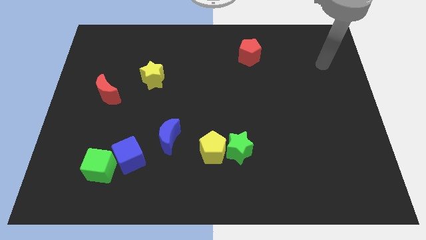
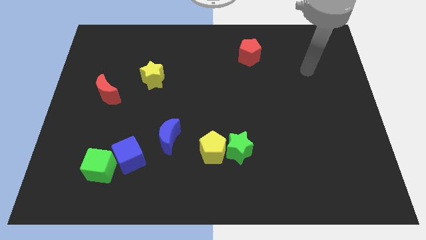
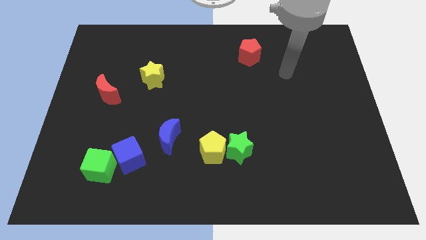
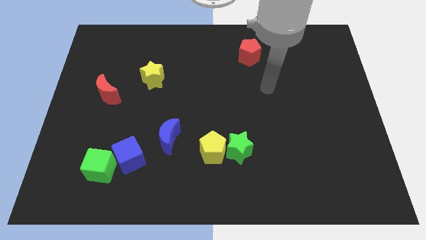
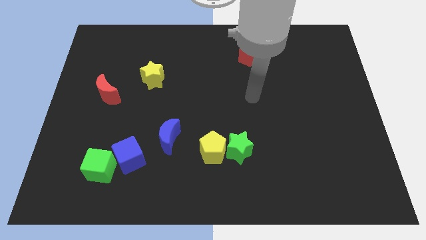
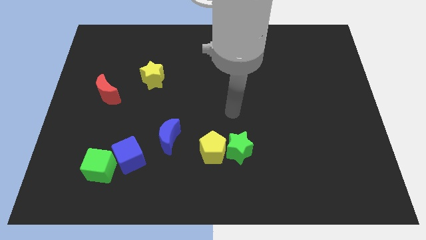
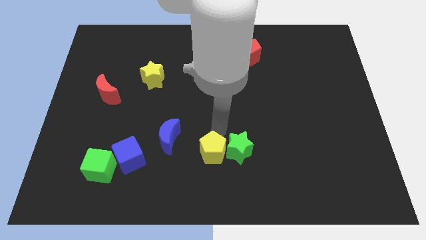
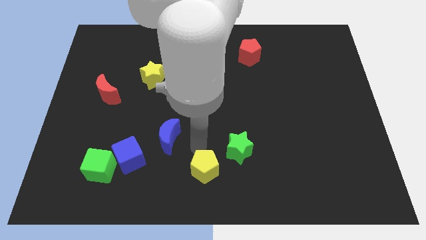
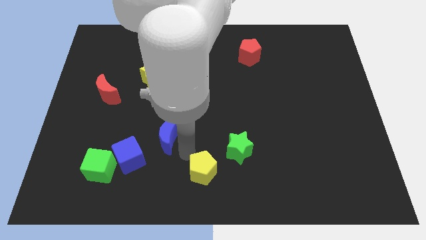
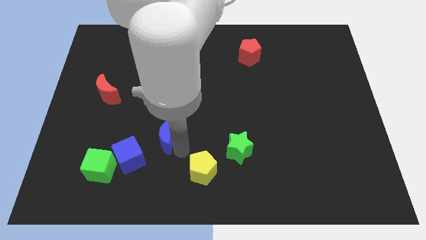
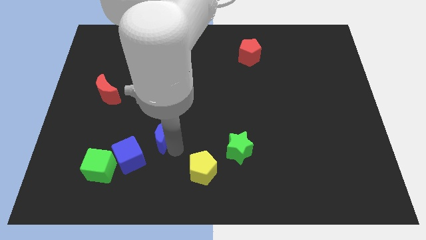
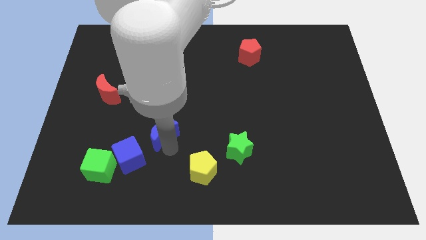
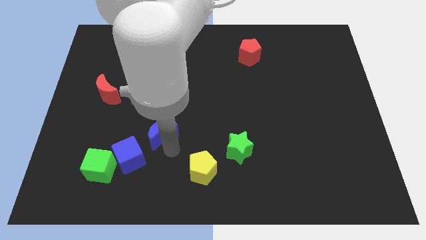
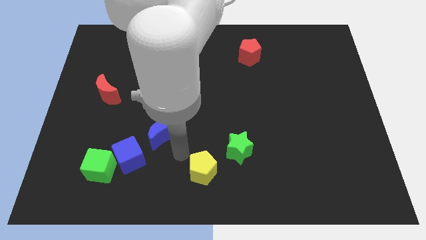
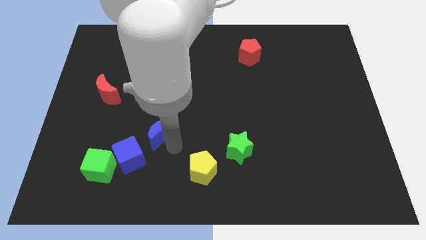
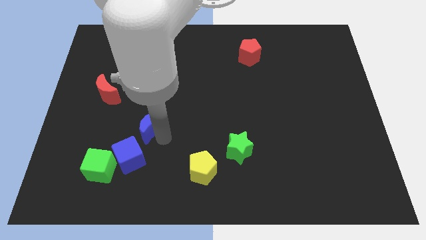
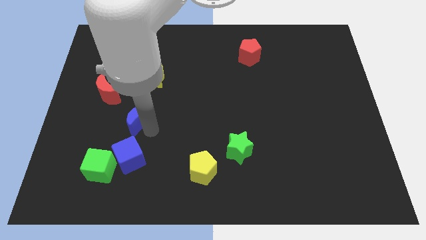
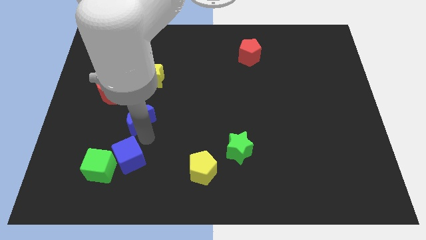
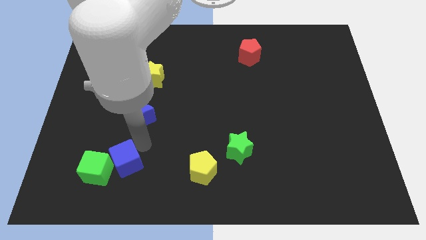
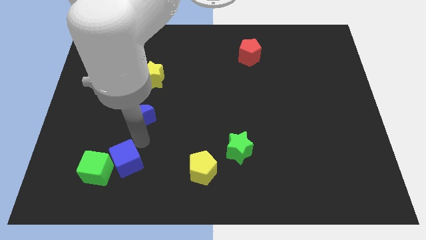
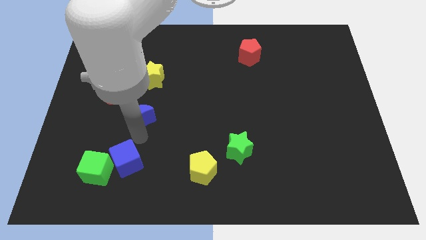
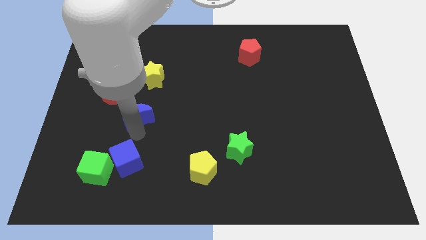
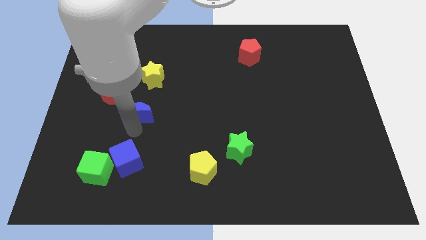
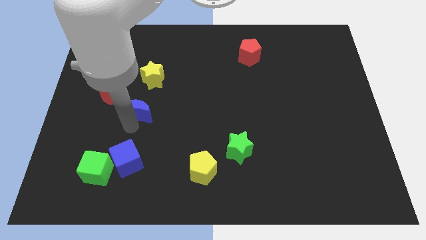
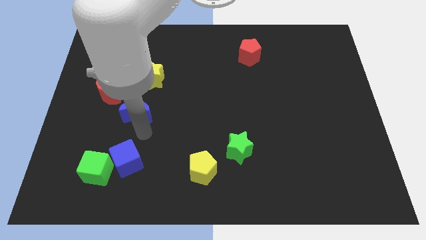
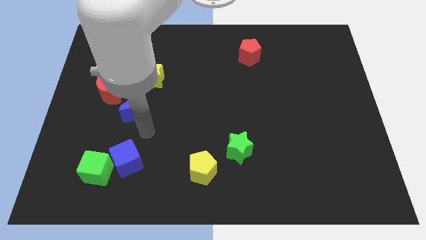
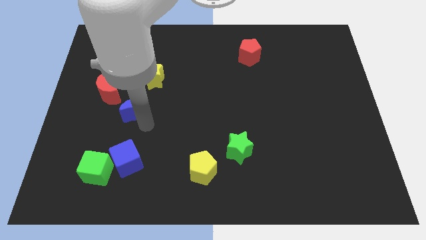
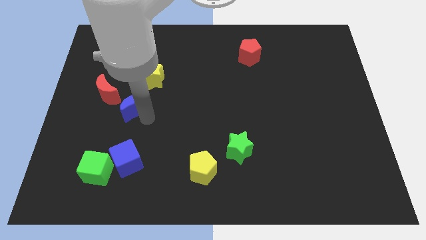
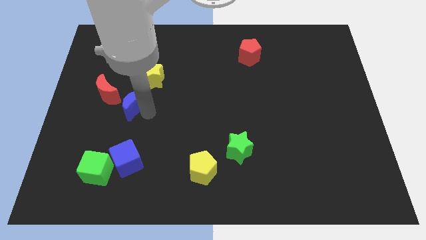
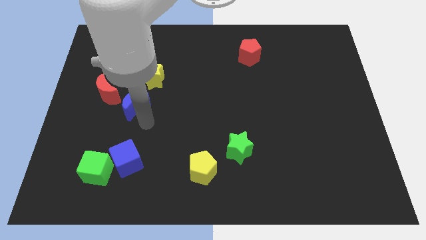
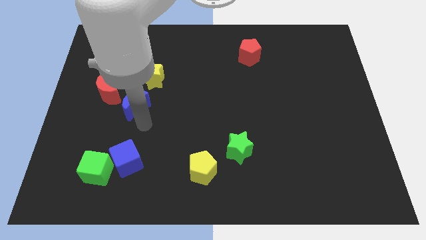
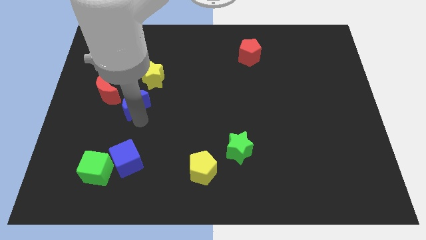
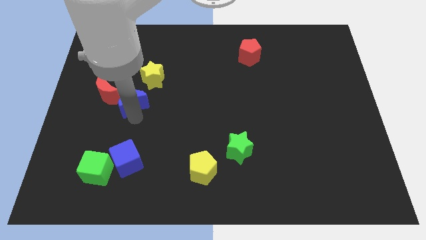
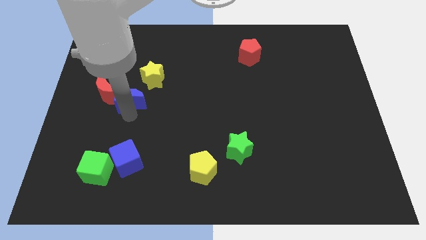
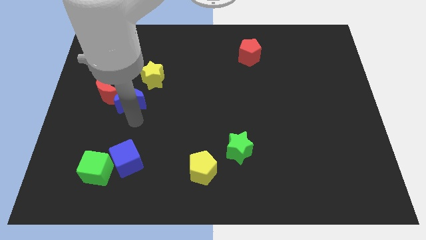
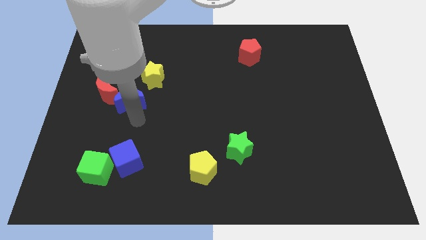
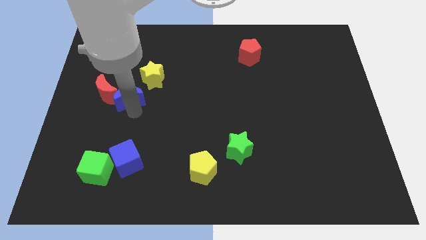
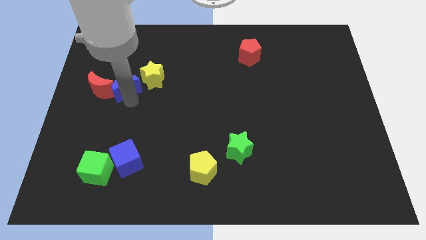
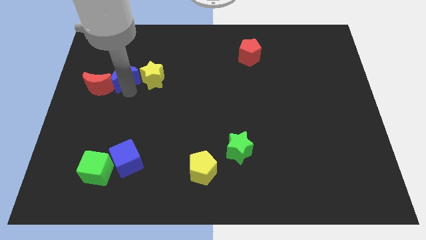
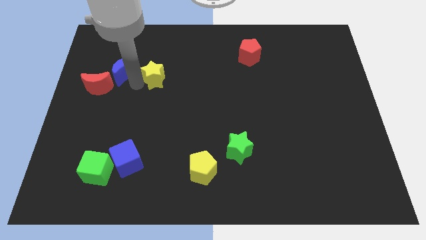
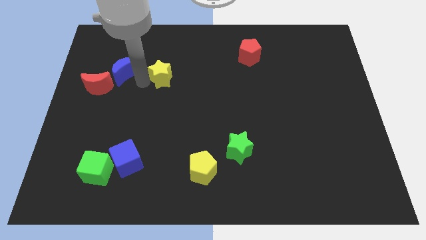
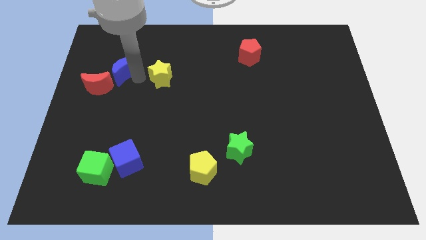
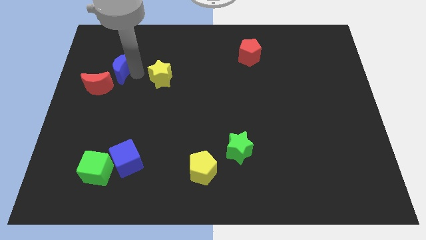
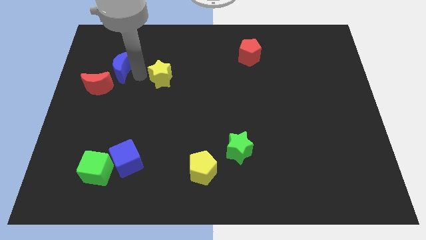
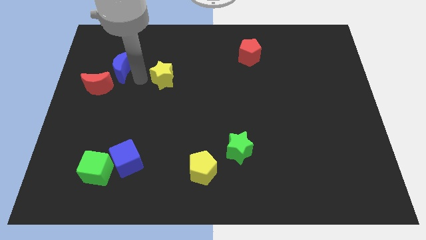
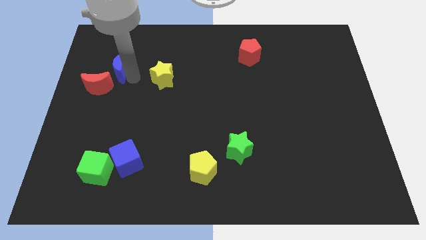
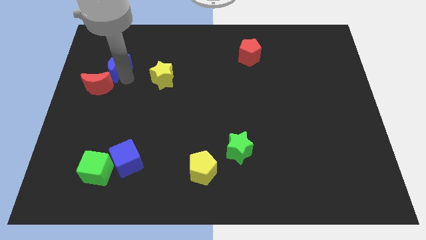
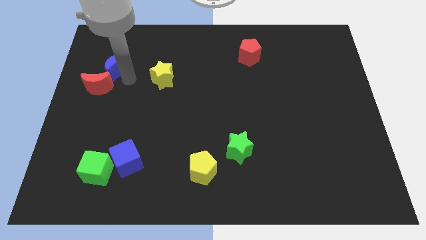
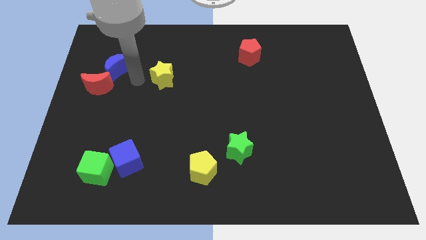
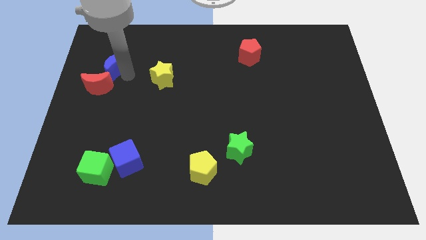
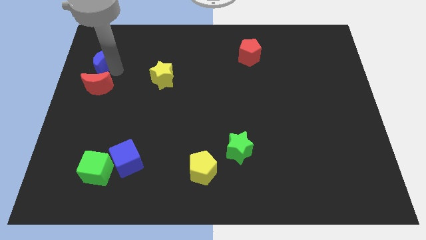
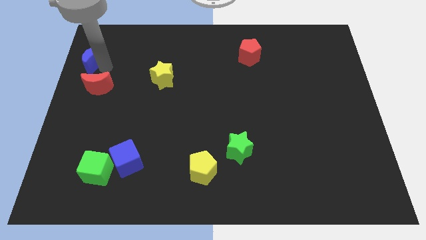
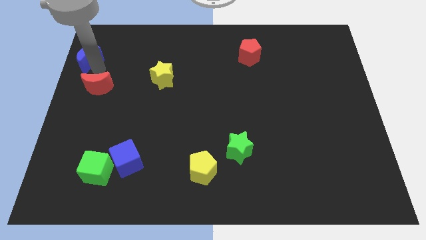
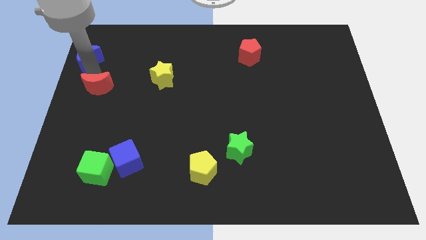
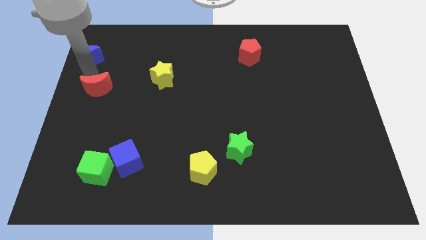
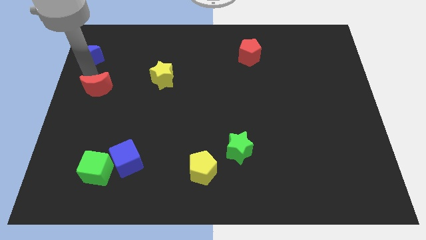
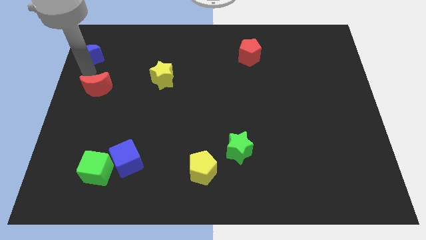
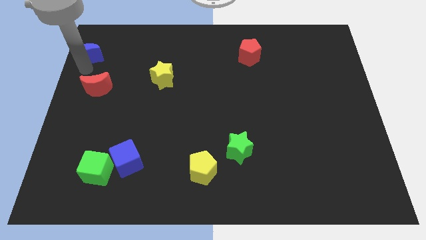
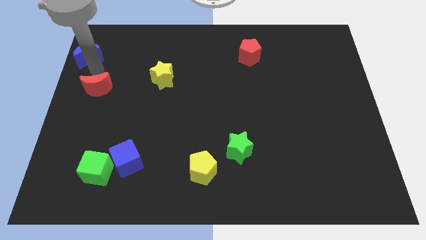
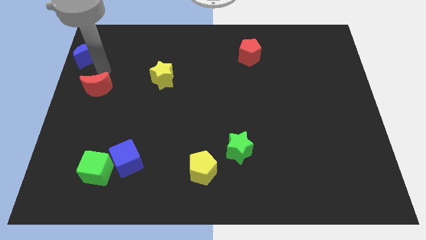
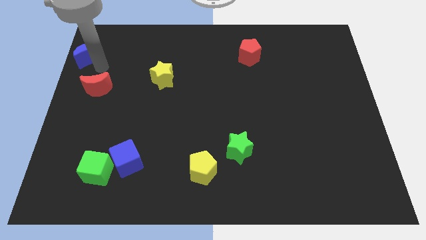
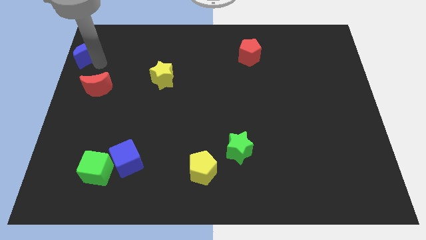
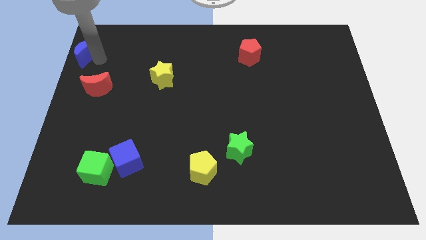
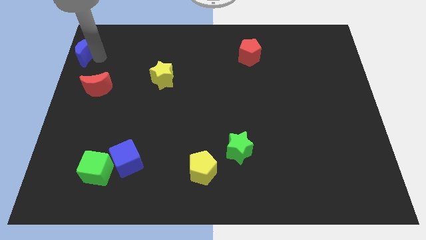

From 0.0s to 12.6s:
move the blue moon to the top left

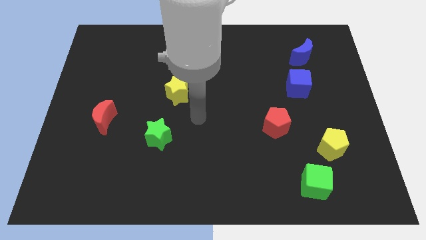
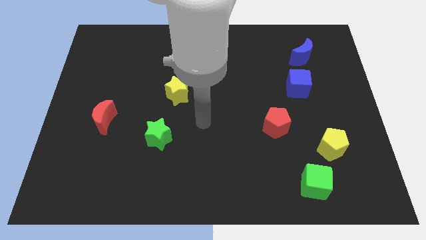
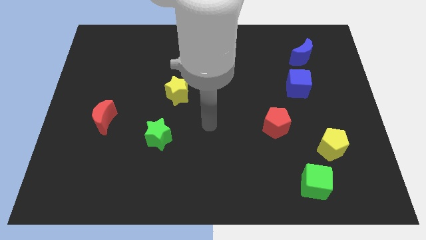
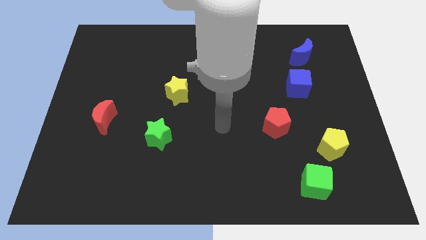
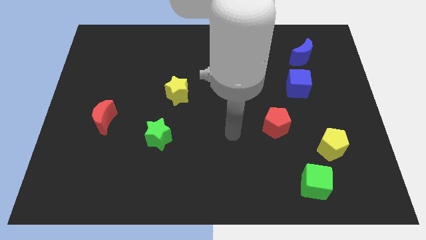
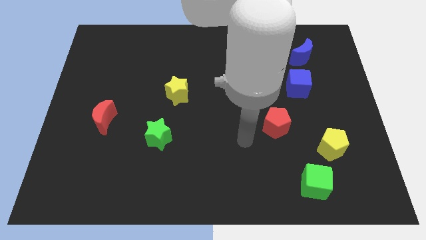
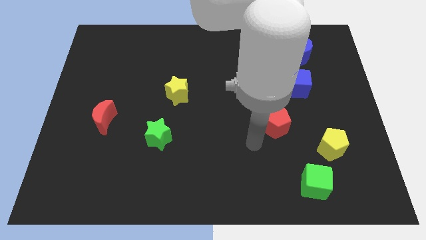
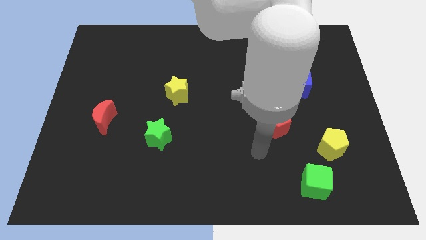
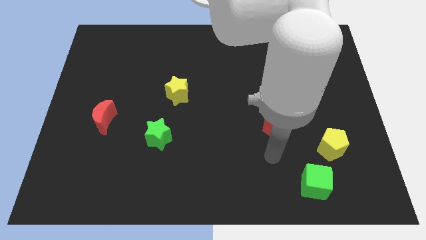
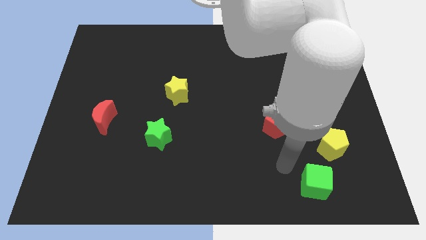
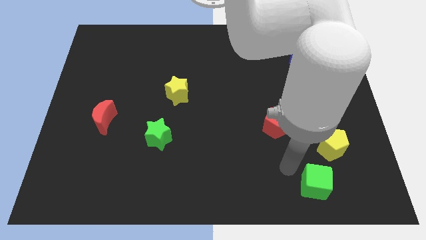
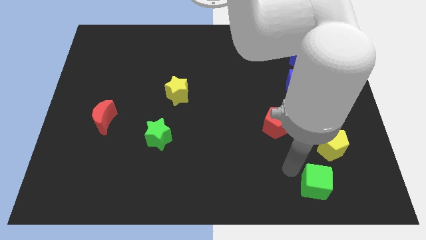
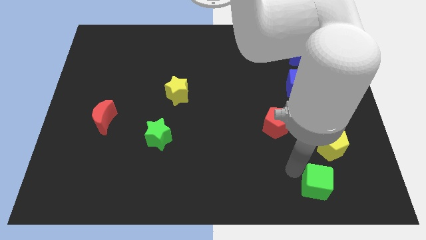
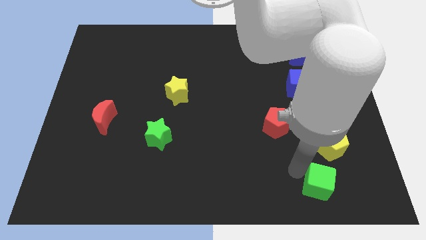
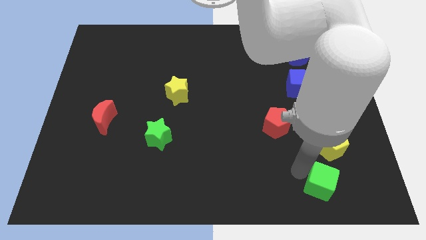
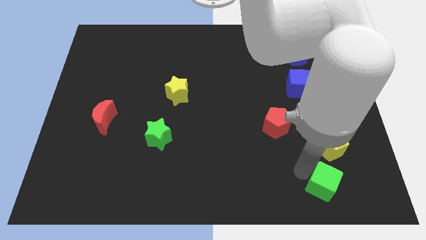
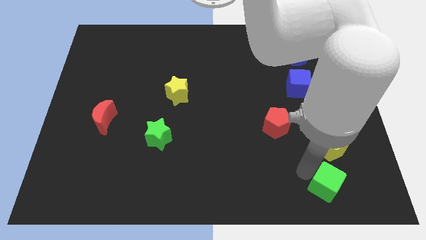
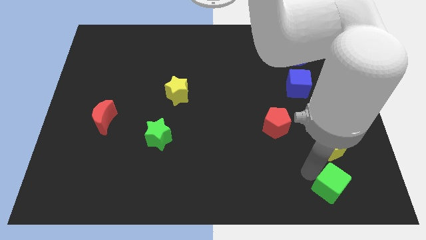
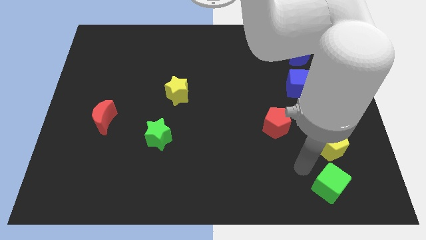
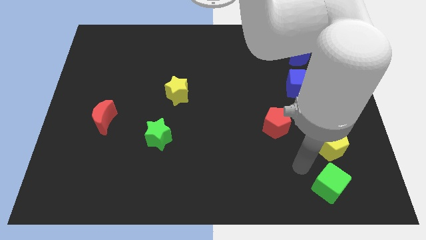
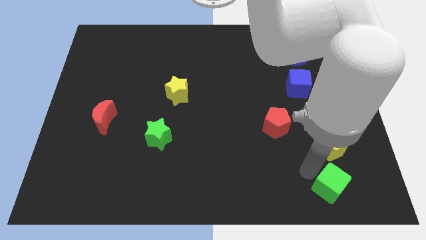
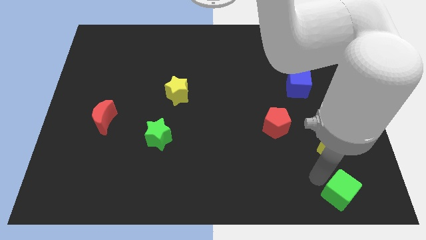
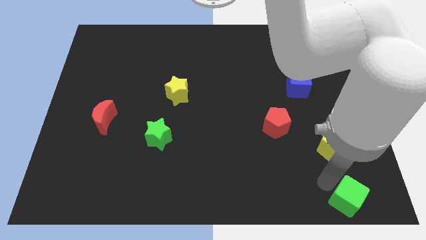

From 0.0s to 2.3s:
move the green cube to the lower right corner
